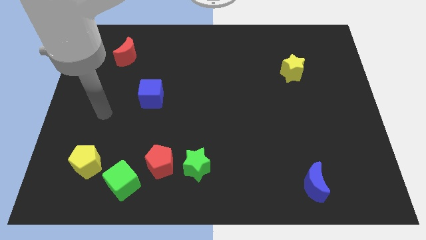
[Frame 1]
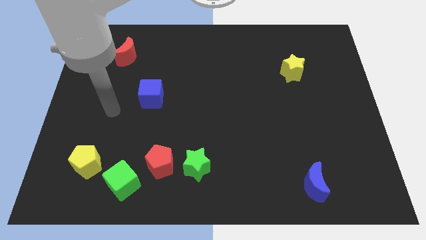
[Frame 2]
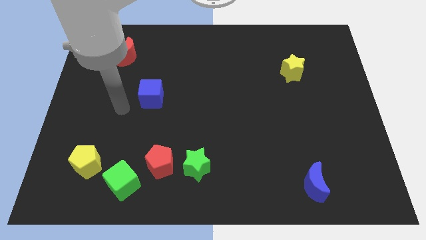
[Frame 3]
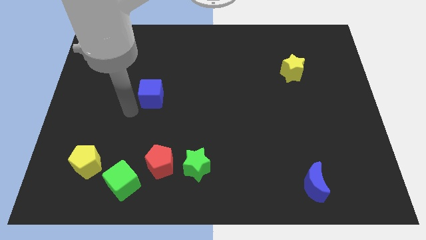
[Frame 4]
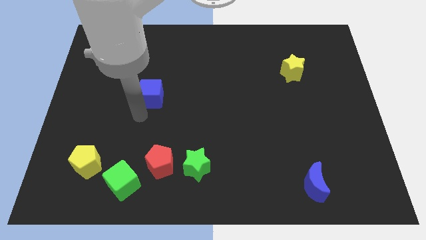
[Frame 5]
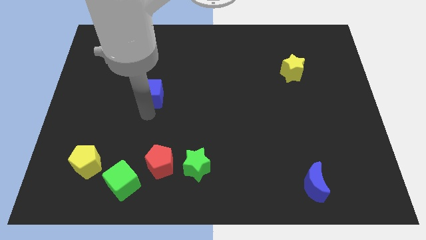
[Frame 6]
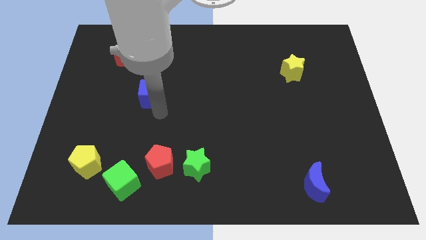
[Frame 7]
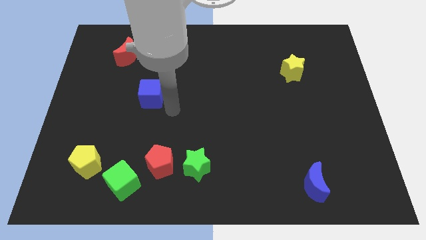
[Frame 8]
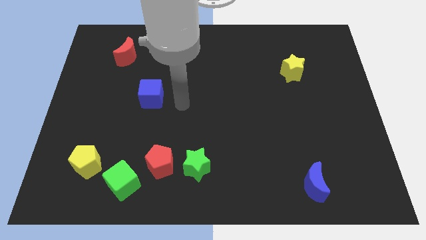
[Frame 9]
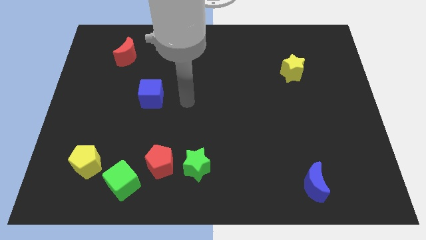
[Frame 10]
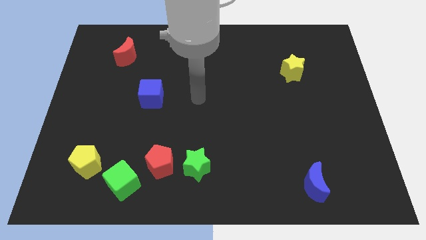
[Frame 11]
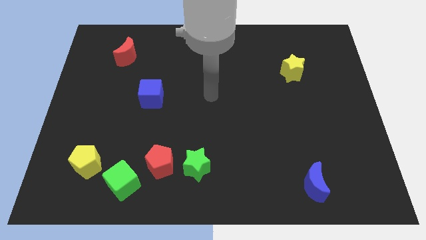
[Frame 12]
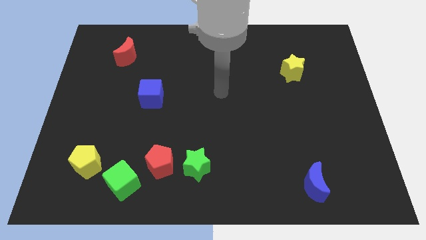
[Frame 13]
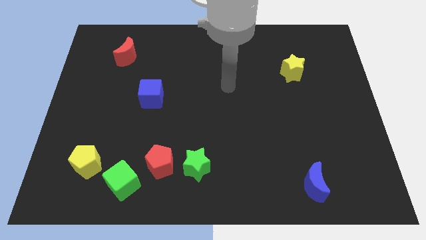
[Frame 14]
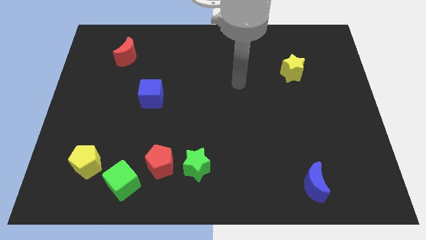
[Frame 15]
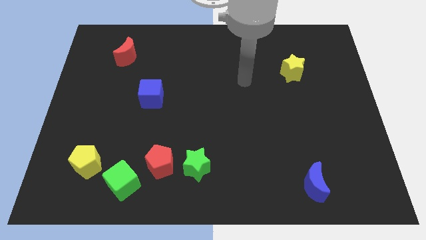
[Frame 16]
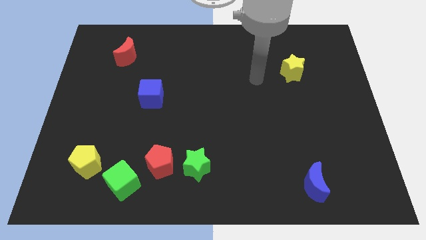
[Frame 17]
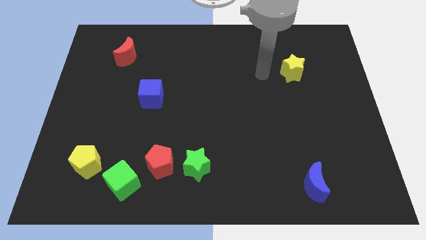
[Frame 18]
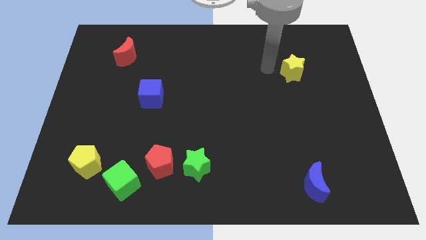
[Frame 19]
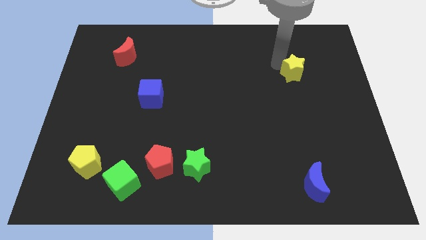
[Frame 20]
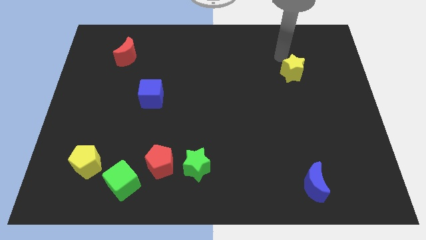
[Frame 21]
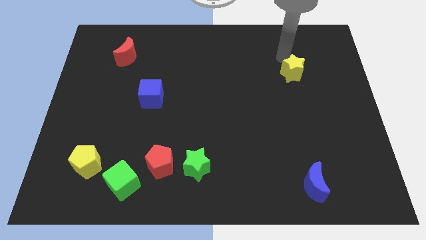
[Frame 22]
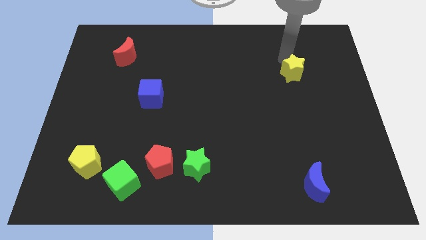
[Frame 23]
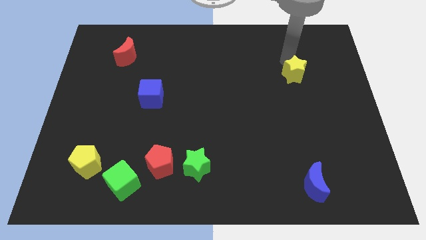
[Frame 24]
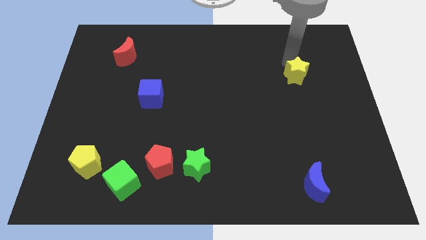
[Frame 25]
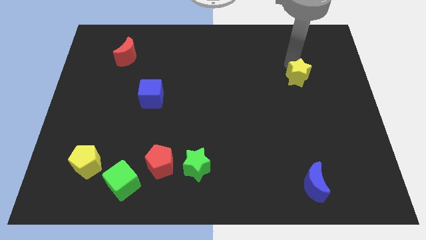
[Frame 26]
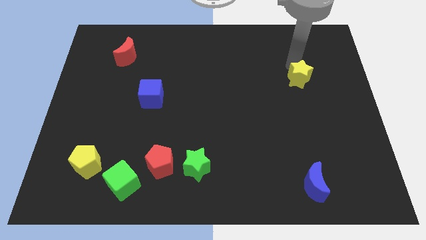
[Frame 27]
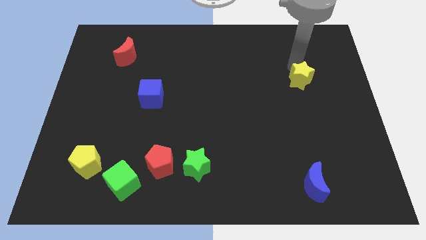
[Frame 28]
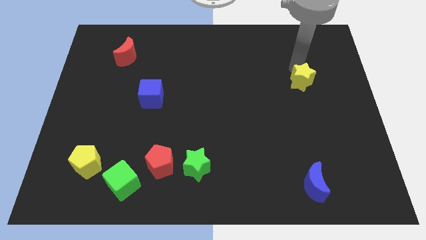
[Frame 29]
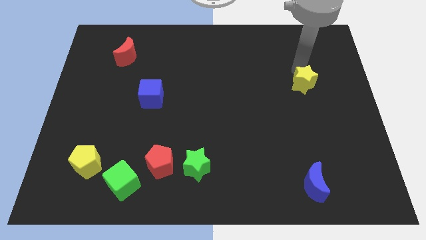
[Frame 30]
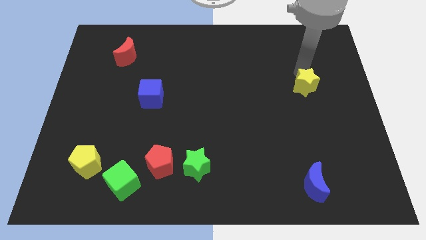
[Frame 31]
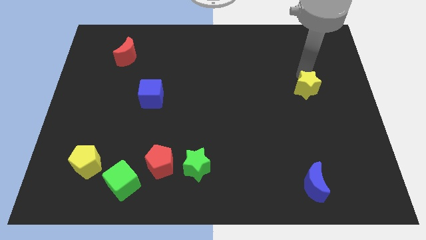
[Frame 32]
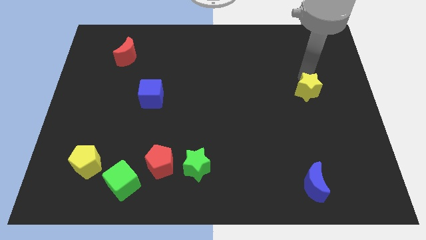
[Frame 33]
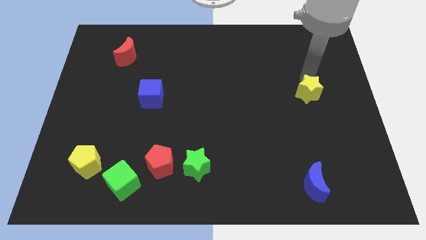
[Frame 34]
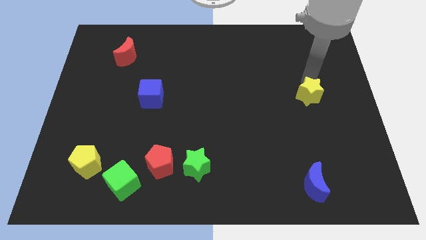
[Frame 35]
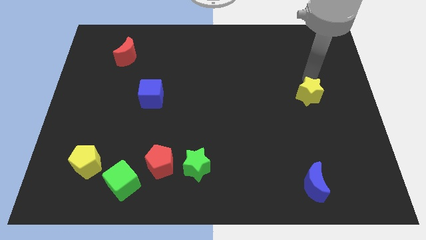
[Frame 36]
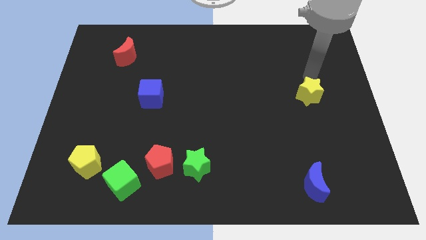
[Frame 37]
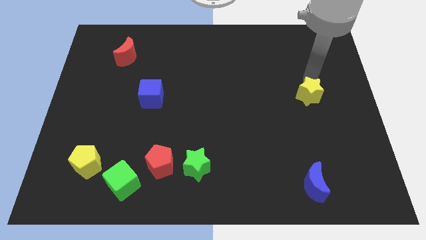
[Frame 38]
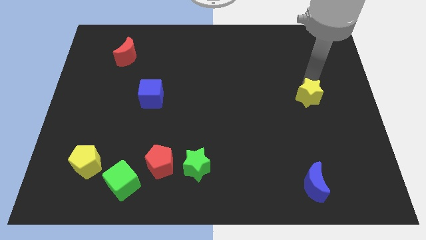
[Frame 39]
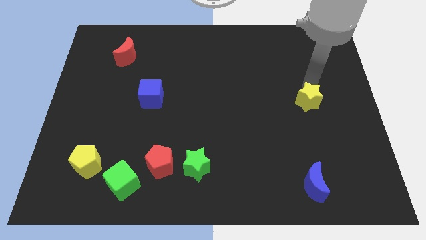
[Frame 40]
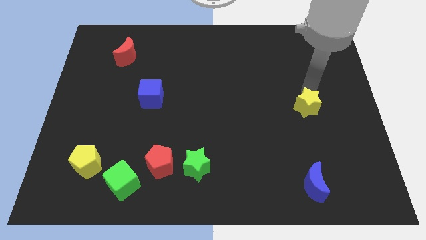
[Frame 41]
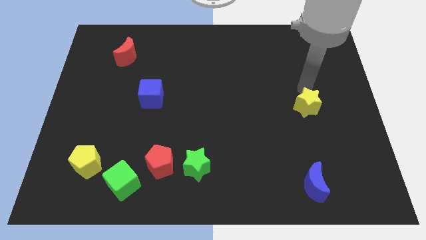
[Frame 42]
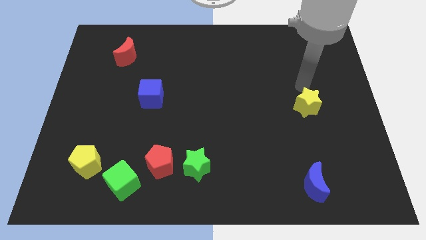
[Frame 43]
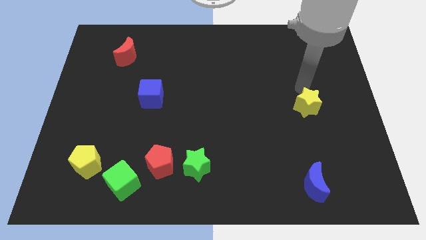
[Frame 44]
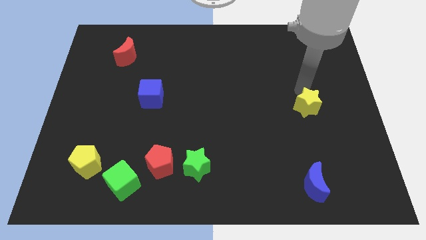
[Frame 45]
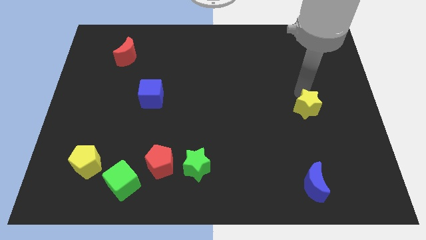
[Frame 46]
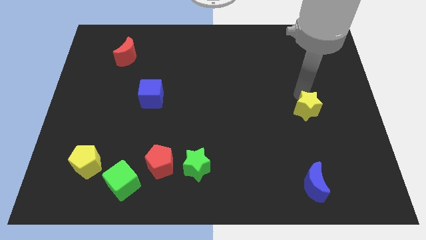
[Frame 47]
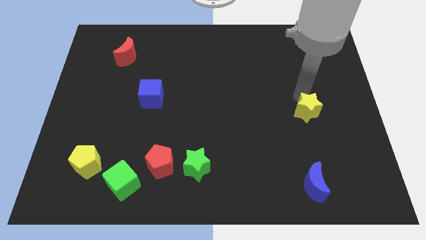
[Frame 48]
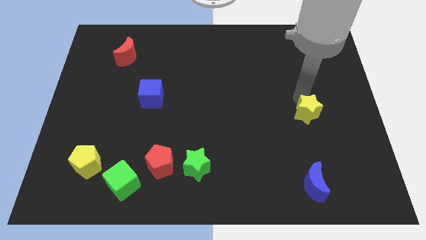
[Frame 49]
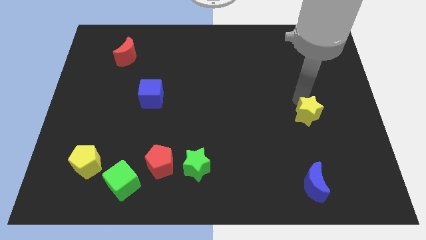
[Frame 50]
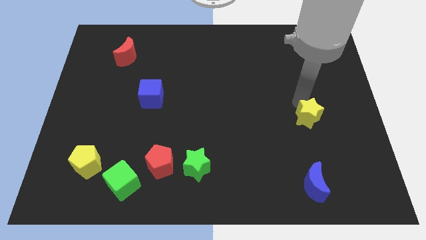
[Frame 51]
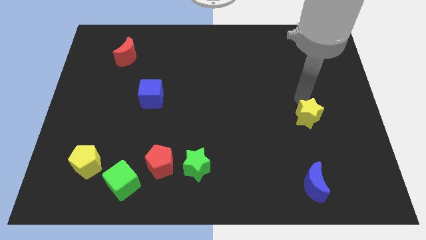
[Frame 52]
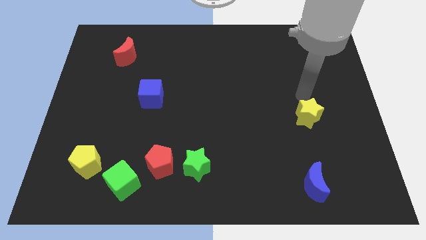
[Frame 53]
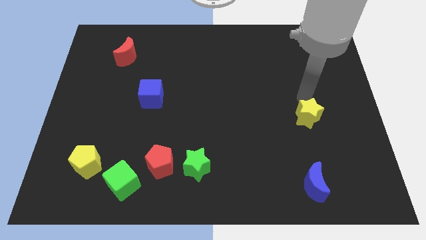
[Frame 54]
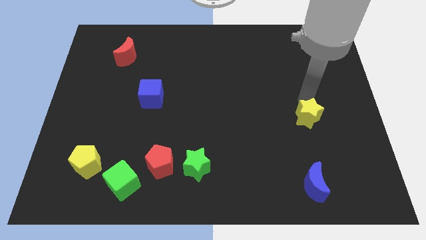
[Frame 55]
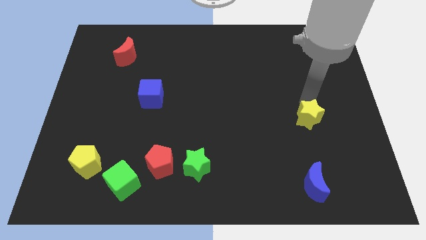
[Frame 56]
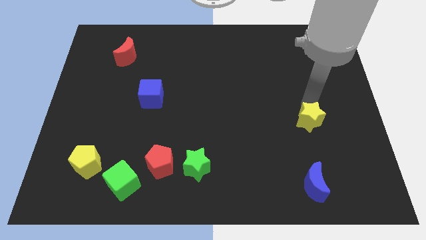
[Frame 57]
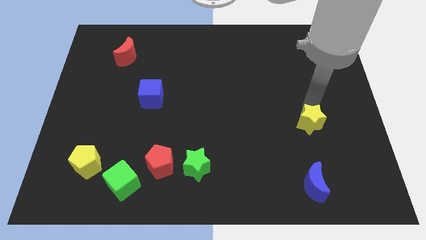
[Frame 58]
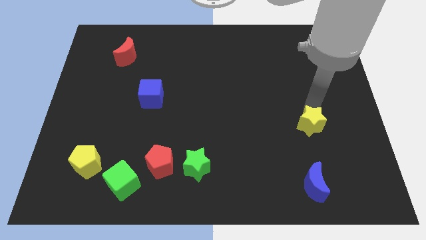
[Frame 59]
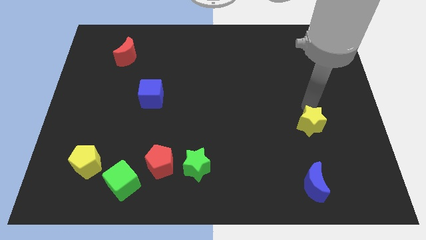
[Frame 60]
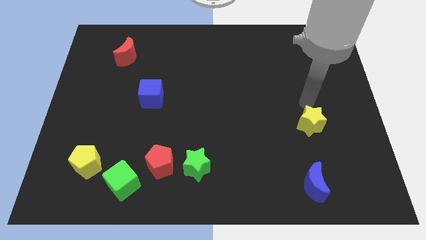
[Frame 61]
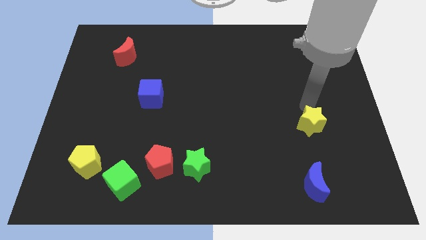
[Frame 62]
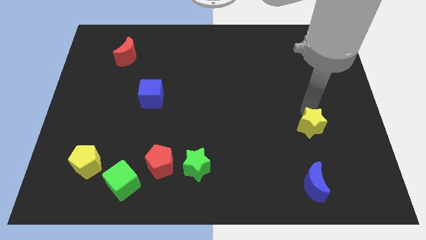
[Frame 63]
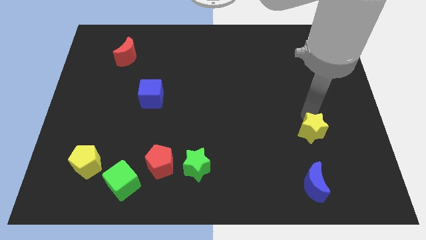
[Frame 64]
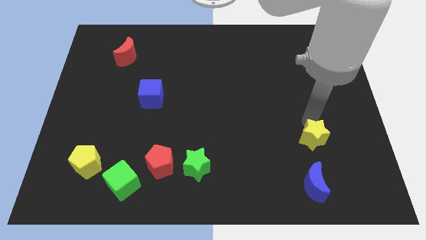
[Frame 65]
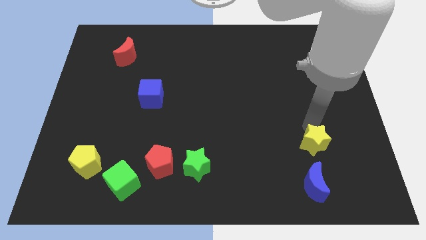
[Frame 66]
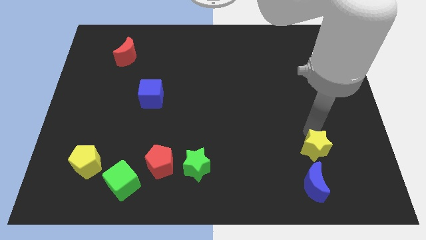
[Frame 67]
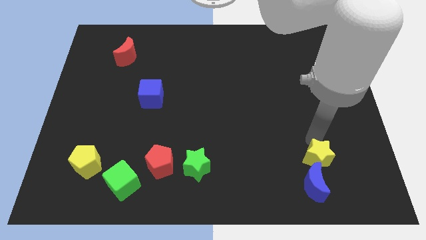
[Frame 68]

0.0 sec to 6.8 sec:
push the yellow star close to the blue moon

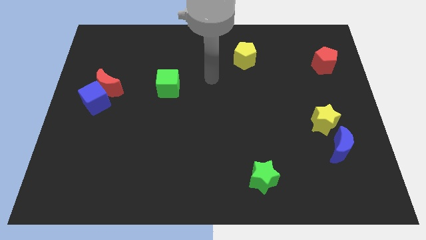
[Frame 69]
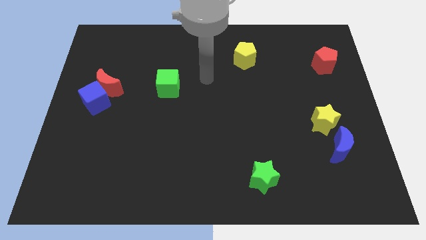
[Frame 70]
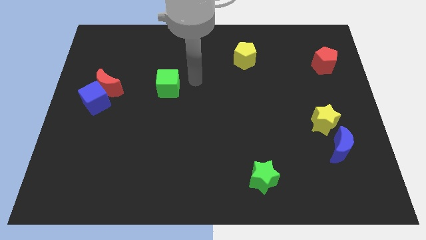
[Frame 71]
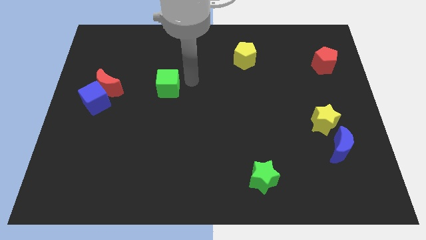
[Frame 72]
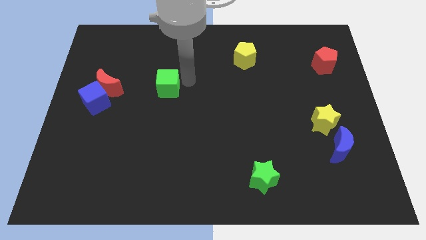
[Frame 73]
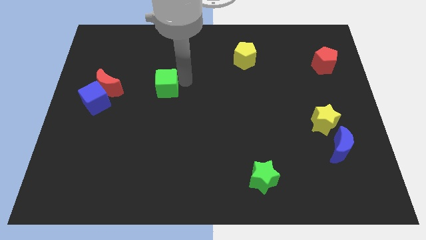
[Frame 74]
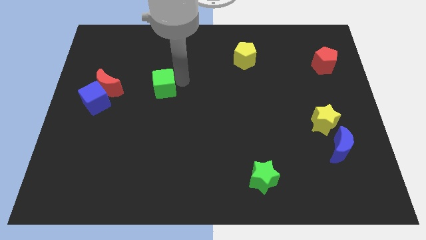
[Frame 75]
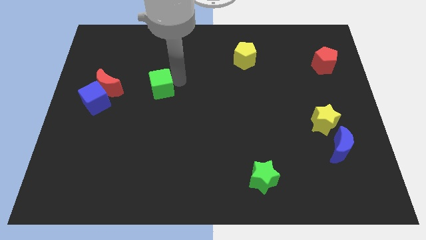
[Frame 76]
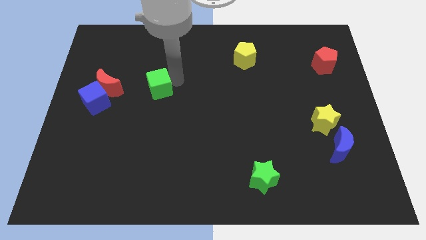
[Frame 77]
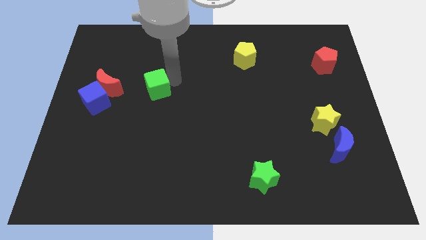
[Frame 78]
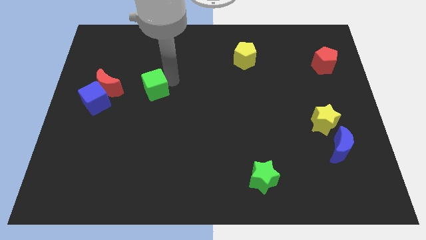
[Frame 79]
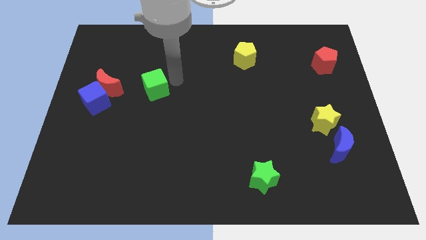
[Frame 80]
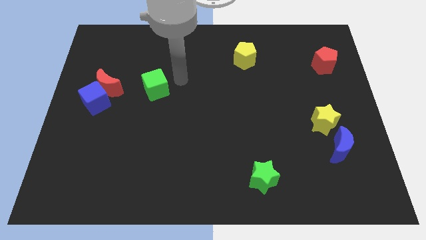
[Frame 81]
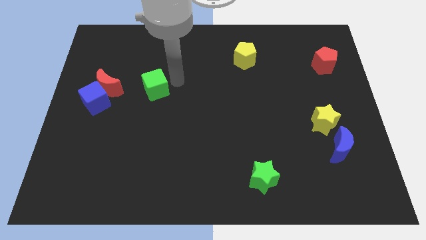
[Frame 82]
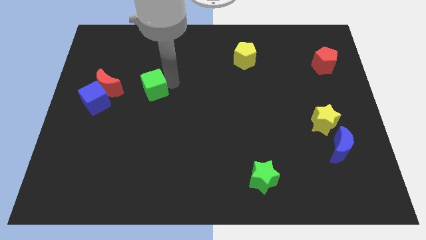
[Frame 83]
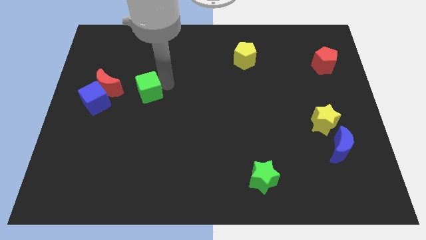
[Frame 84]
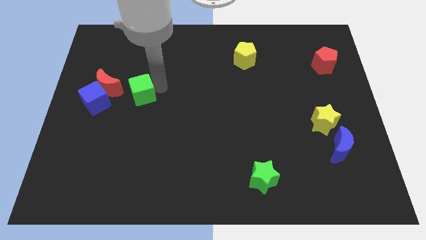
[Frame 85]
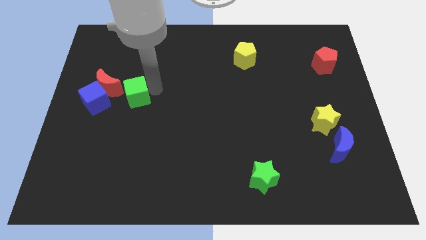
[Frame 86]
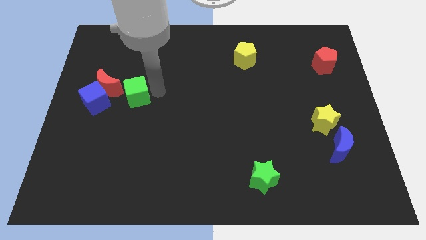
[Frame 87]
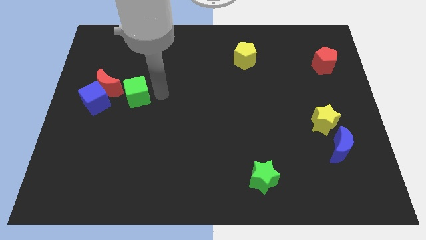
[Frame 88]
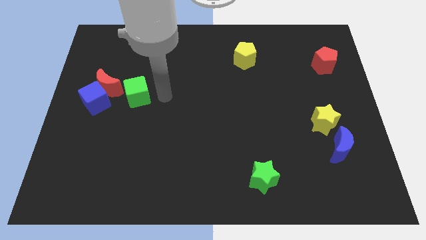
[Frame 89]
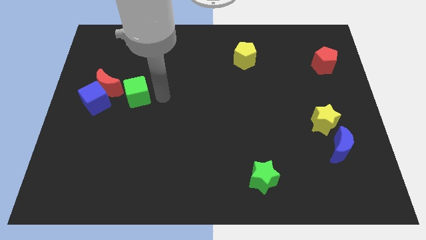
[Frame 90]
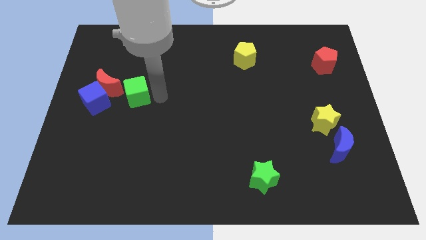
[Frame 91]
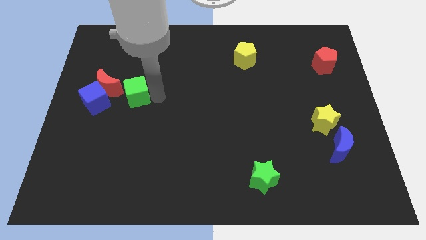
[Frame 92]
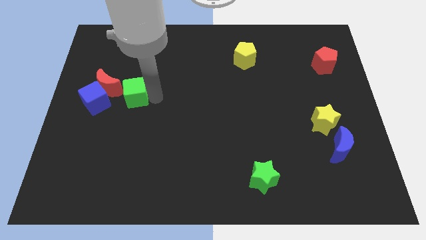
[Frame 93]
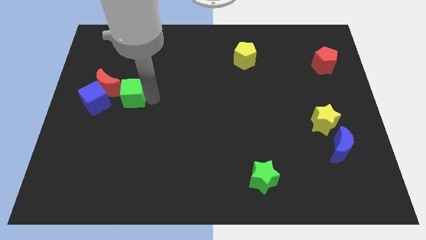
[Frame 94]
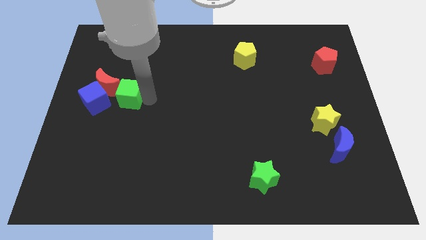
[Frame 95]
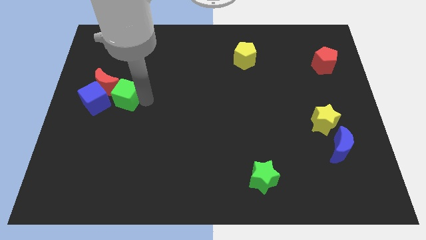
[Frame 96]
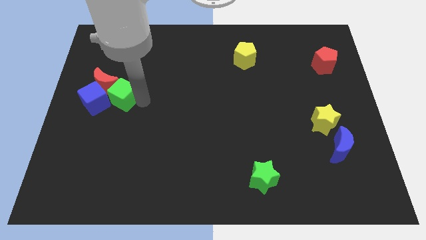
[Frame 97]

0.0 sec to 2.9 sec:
slide the green cube towards the red moon
